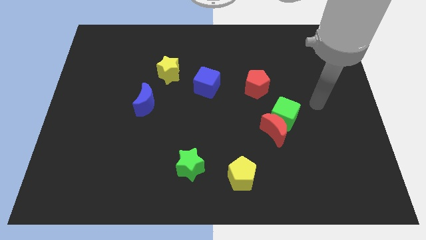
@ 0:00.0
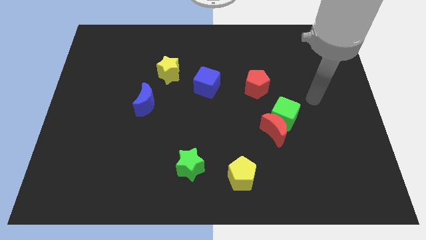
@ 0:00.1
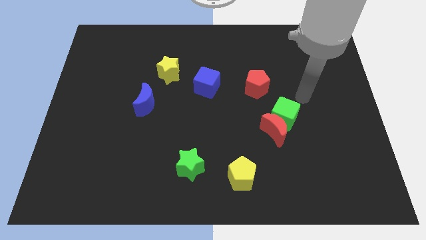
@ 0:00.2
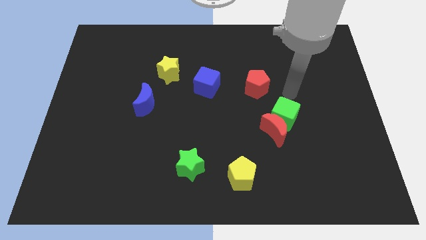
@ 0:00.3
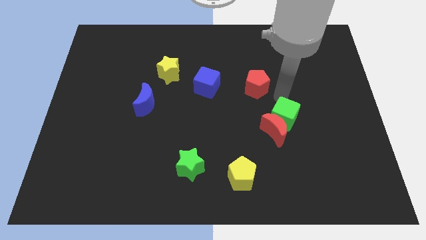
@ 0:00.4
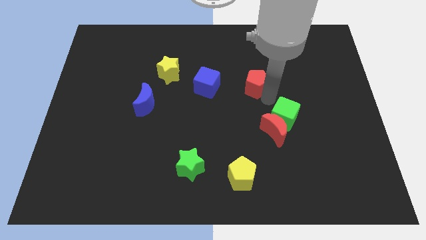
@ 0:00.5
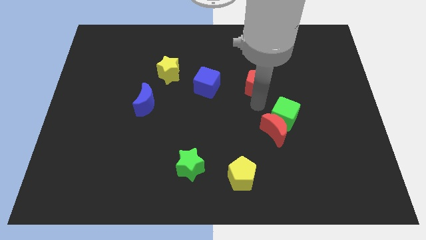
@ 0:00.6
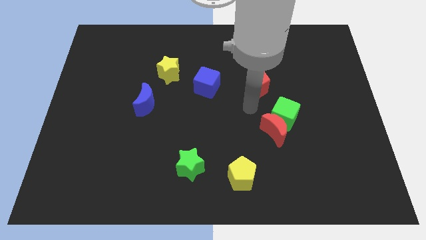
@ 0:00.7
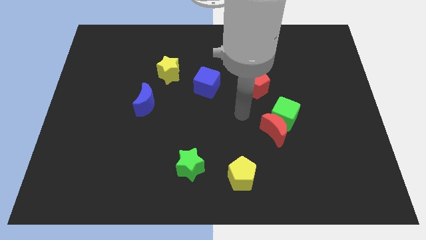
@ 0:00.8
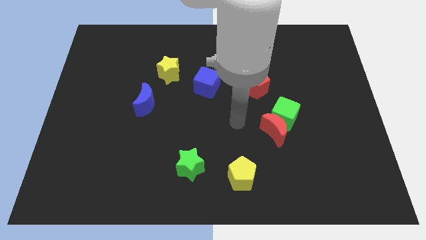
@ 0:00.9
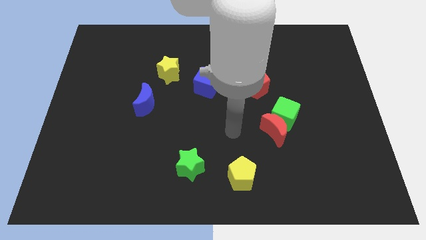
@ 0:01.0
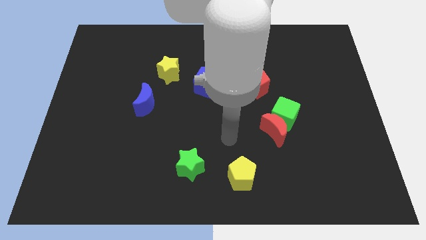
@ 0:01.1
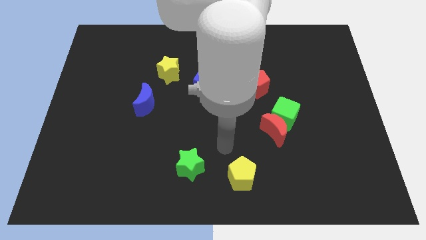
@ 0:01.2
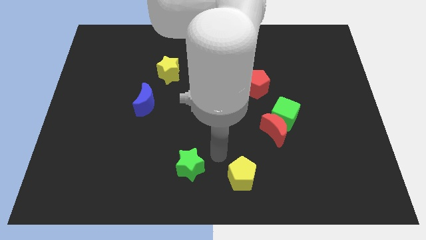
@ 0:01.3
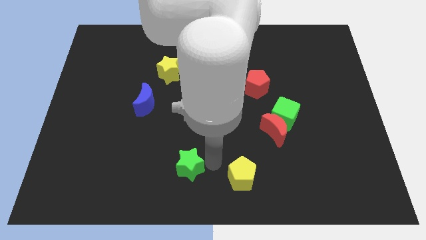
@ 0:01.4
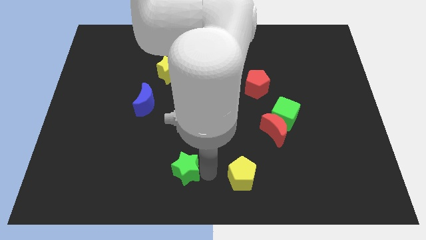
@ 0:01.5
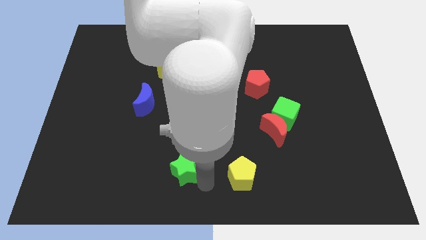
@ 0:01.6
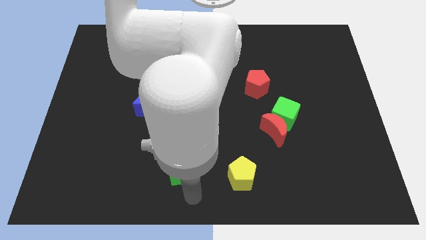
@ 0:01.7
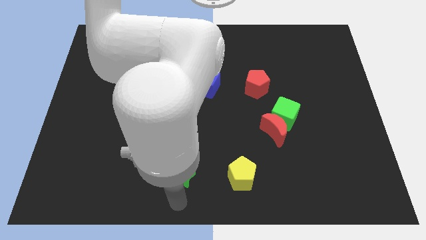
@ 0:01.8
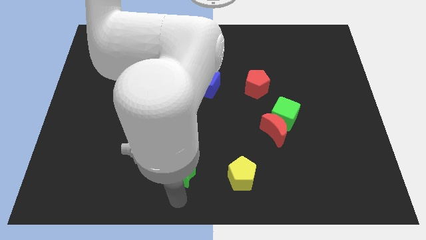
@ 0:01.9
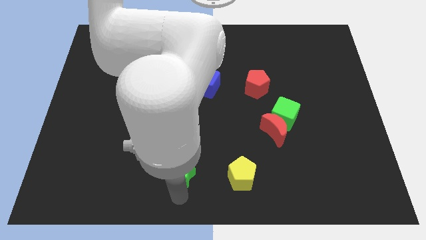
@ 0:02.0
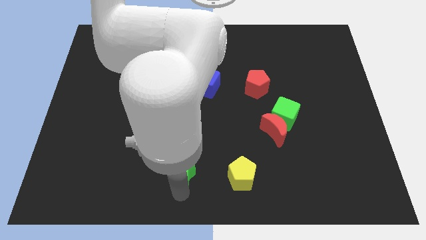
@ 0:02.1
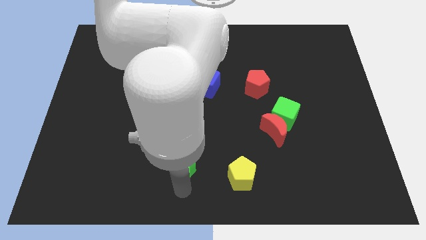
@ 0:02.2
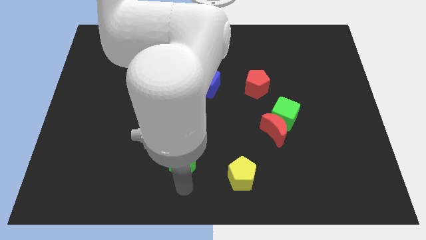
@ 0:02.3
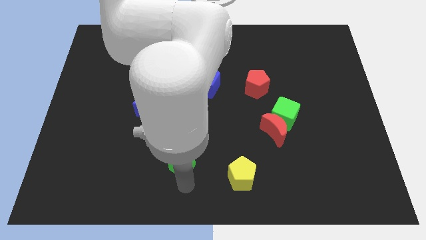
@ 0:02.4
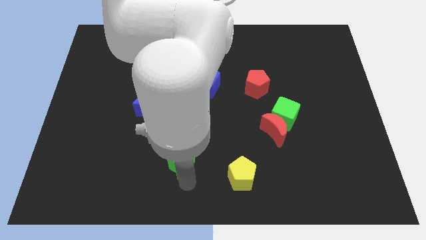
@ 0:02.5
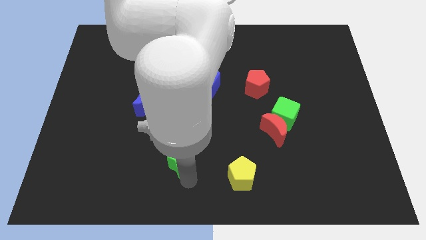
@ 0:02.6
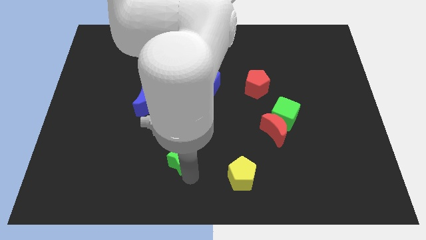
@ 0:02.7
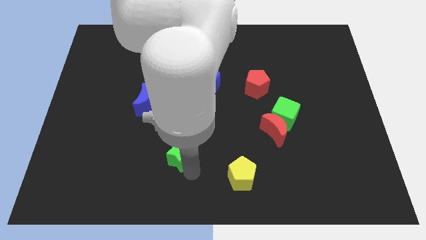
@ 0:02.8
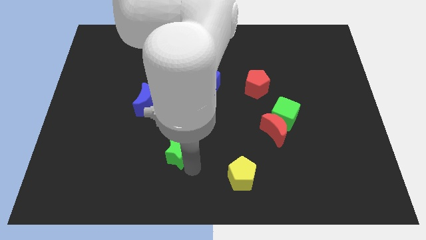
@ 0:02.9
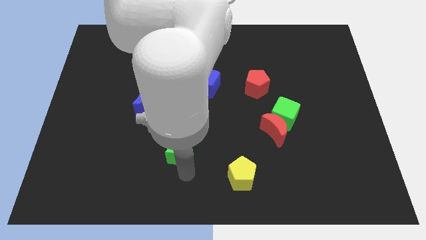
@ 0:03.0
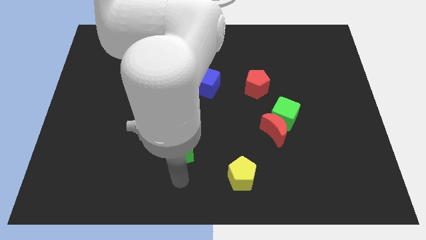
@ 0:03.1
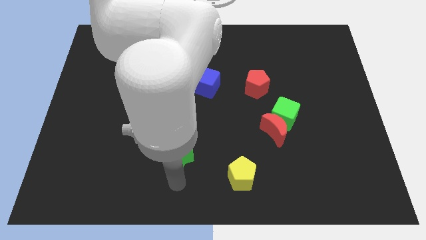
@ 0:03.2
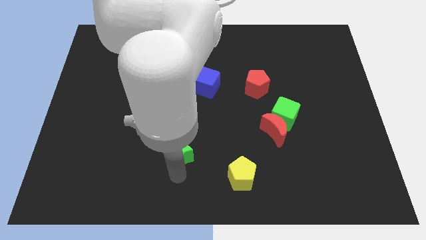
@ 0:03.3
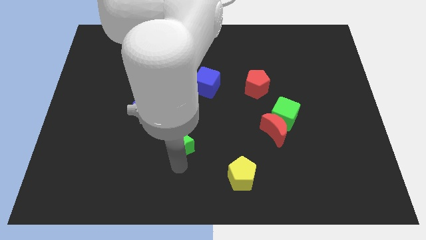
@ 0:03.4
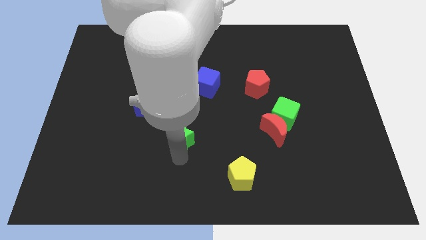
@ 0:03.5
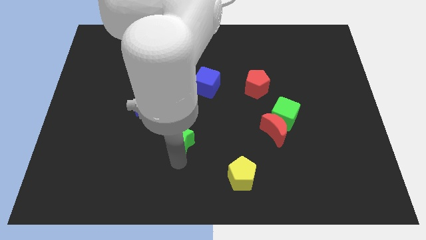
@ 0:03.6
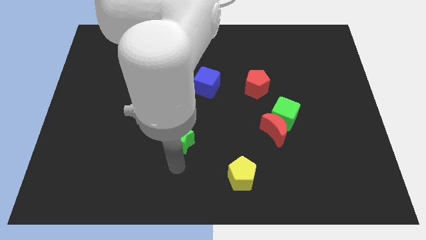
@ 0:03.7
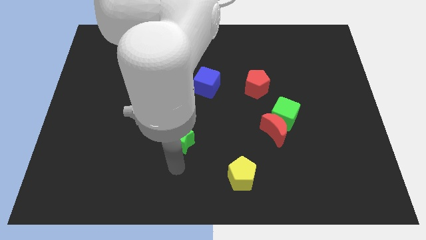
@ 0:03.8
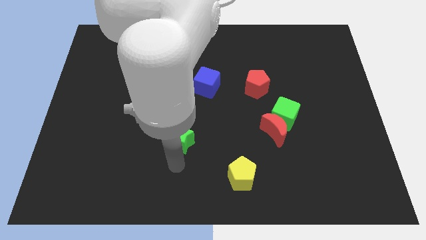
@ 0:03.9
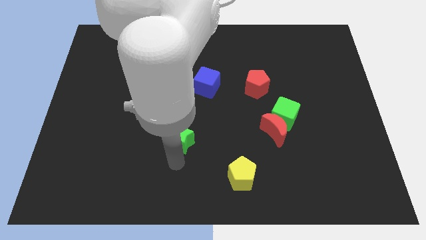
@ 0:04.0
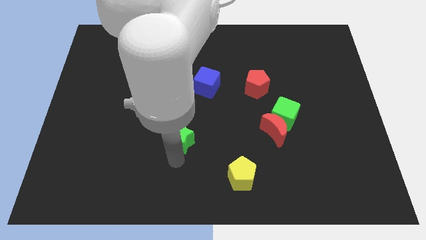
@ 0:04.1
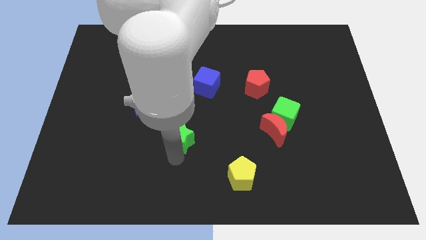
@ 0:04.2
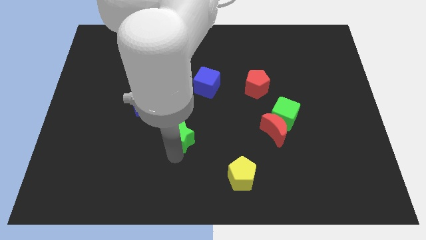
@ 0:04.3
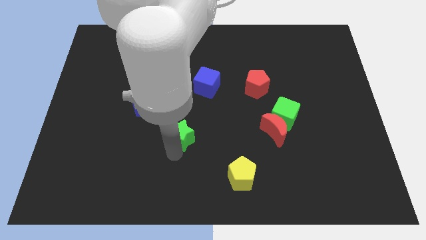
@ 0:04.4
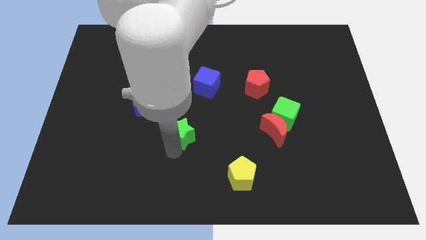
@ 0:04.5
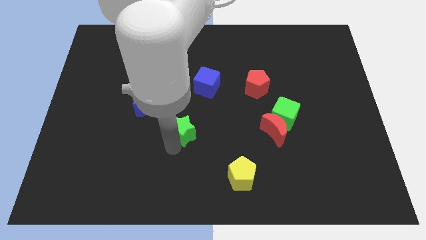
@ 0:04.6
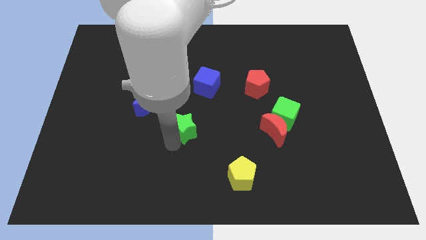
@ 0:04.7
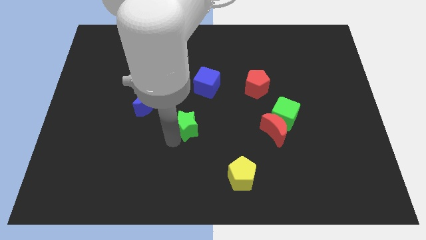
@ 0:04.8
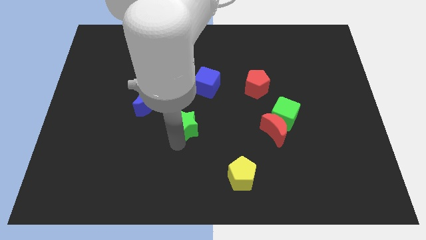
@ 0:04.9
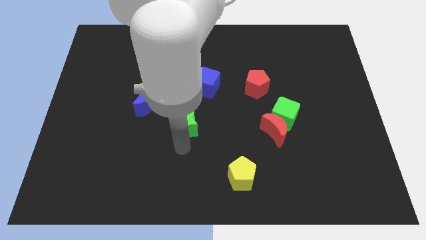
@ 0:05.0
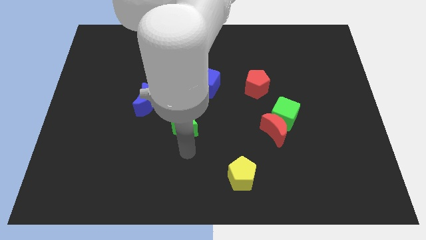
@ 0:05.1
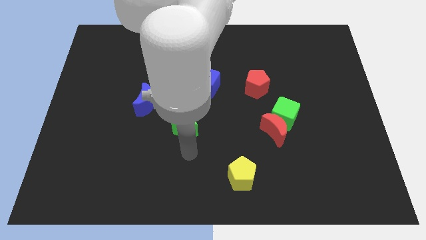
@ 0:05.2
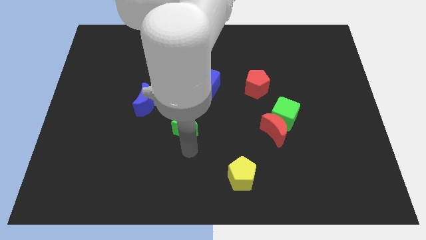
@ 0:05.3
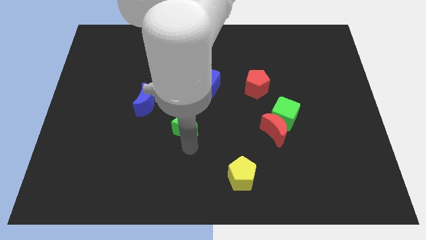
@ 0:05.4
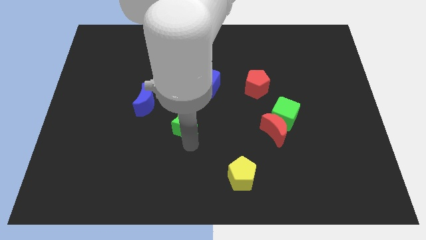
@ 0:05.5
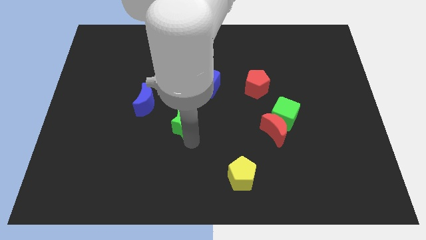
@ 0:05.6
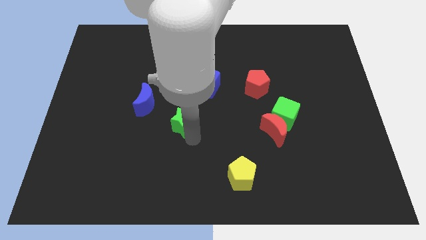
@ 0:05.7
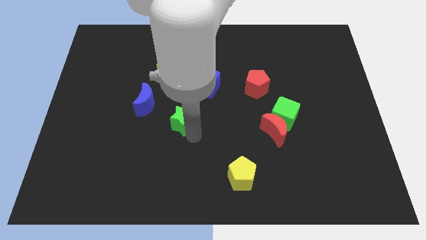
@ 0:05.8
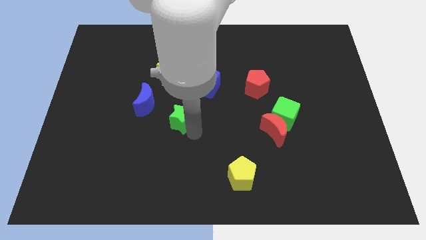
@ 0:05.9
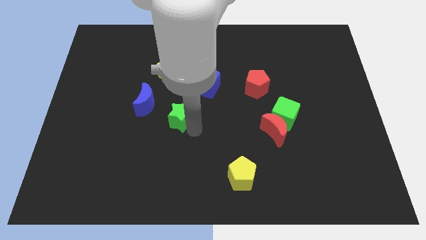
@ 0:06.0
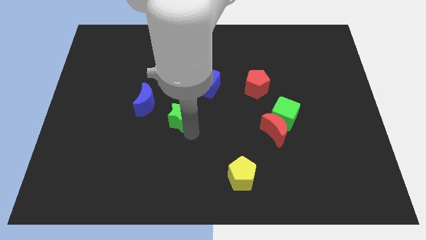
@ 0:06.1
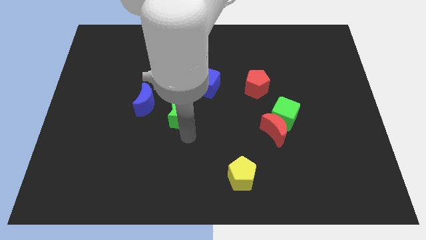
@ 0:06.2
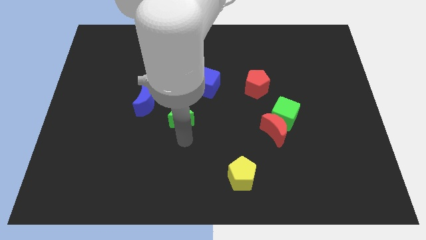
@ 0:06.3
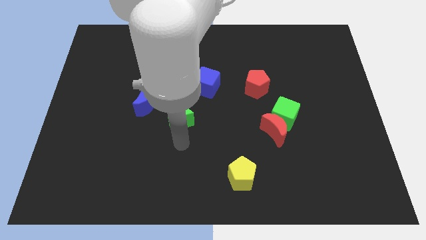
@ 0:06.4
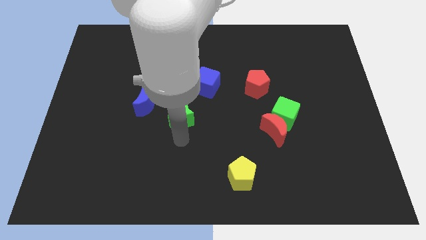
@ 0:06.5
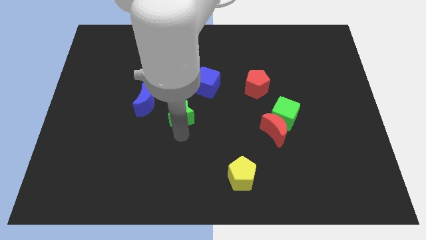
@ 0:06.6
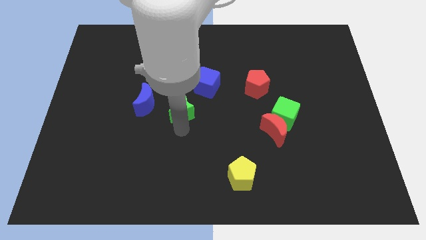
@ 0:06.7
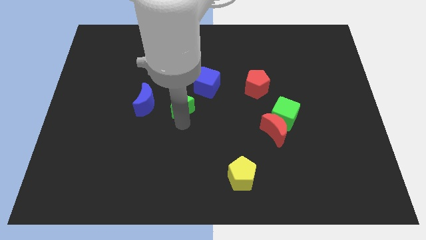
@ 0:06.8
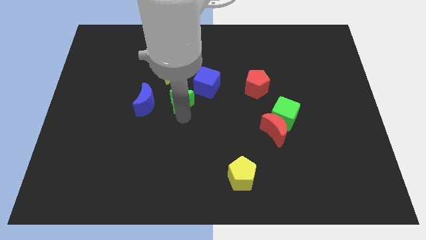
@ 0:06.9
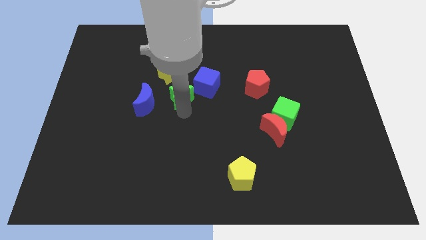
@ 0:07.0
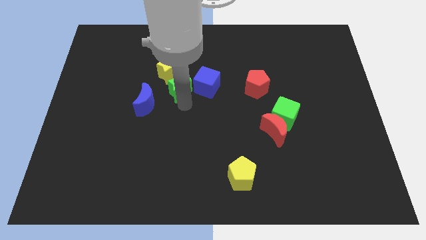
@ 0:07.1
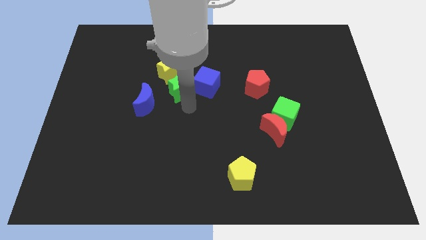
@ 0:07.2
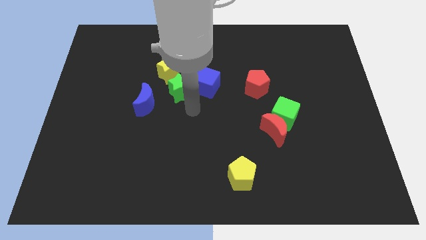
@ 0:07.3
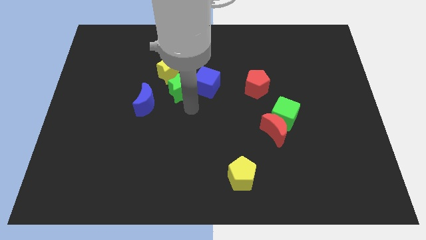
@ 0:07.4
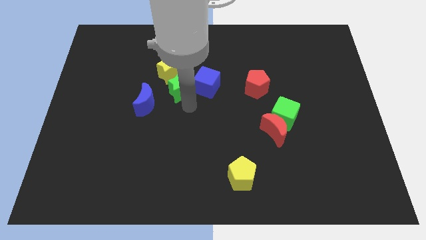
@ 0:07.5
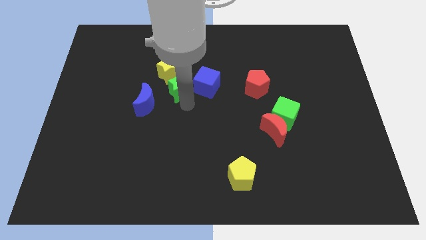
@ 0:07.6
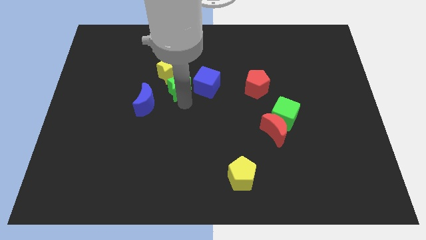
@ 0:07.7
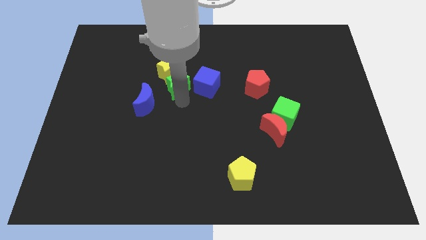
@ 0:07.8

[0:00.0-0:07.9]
push the green star close to the yellow star
